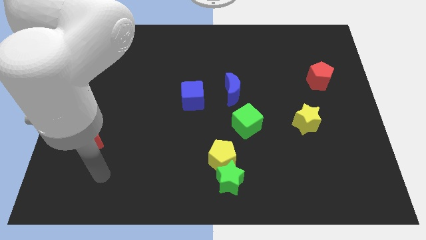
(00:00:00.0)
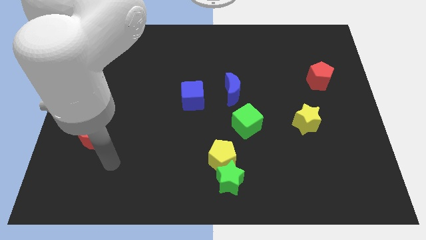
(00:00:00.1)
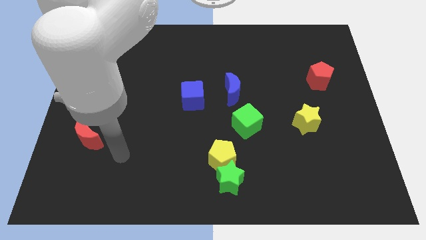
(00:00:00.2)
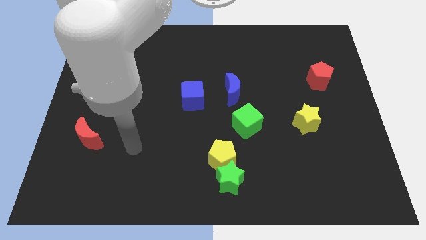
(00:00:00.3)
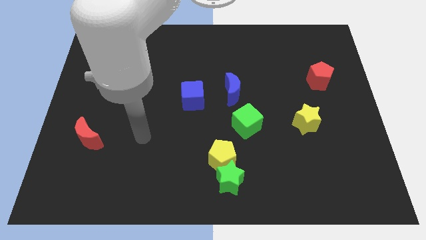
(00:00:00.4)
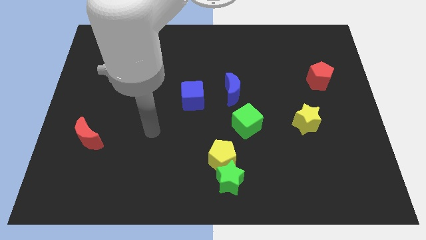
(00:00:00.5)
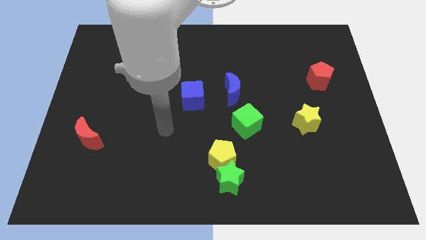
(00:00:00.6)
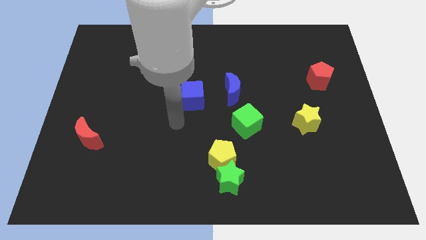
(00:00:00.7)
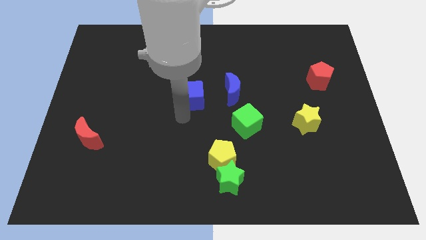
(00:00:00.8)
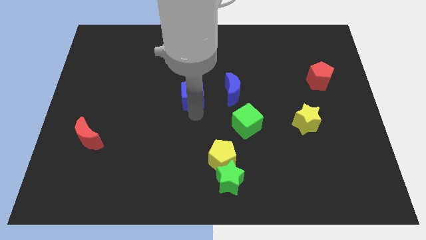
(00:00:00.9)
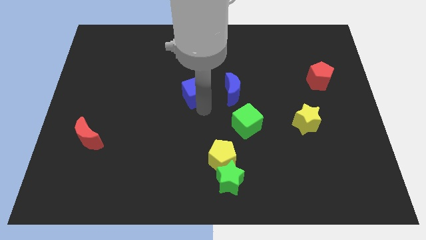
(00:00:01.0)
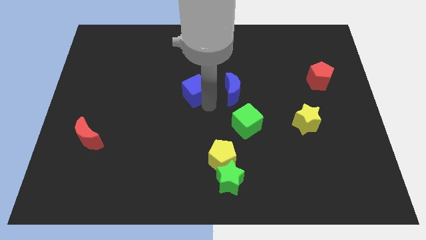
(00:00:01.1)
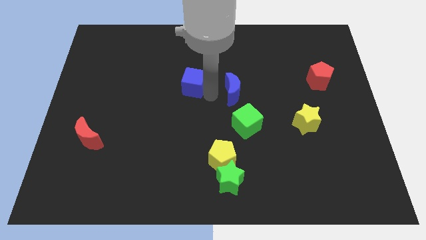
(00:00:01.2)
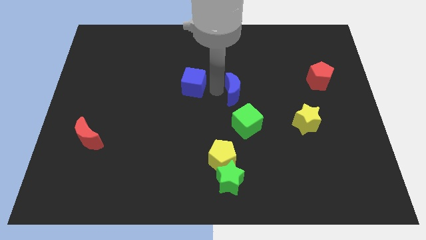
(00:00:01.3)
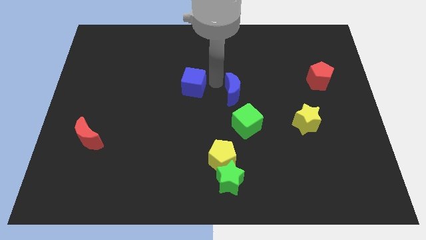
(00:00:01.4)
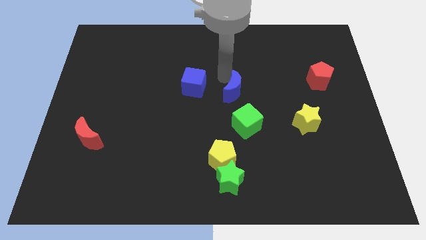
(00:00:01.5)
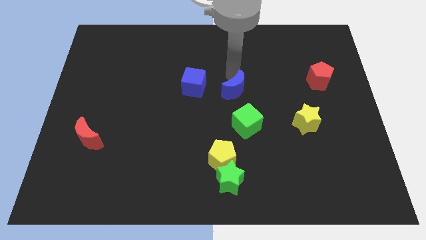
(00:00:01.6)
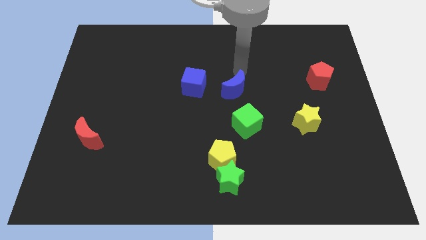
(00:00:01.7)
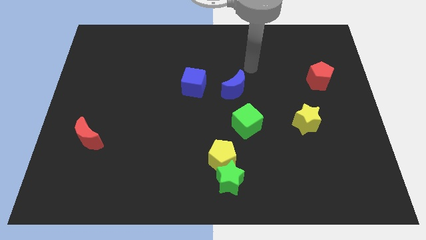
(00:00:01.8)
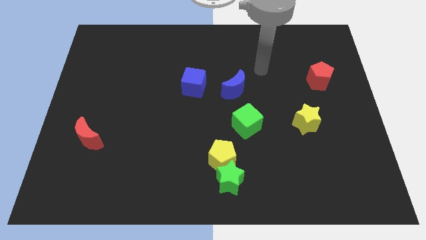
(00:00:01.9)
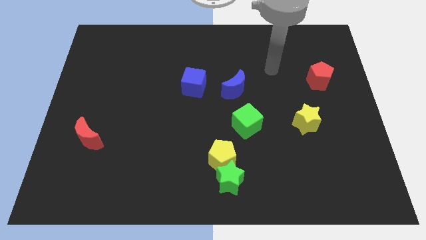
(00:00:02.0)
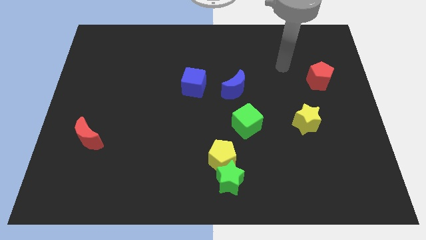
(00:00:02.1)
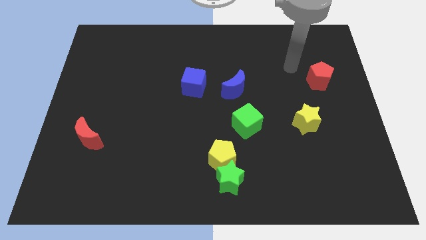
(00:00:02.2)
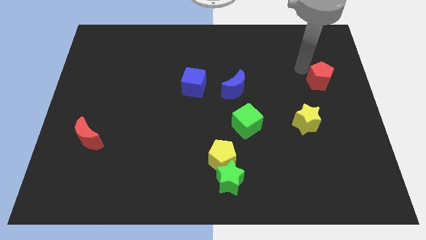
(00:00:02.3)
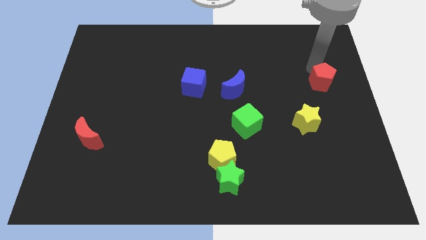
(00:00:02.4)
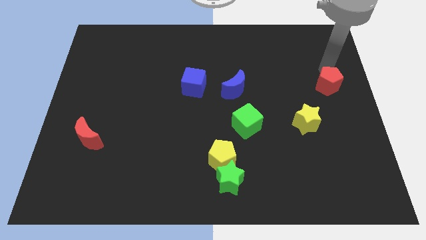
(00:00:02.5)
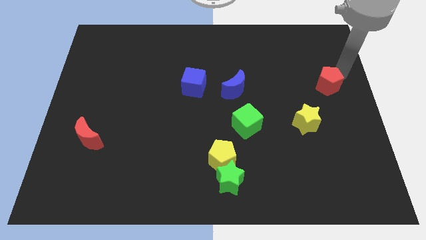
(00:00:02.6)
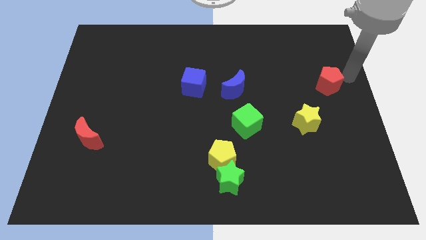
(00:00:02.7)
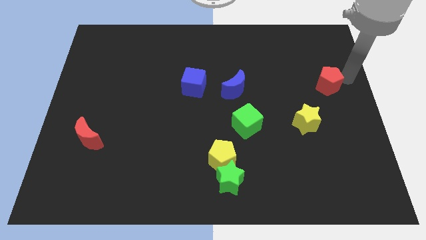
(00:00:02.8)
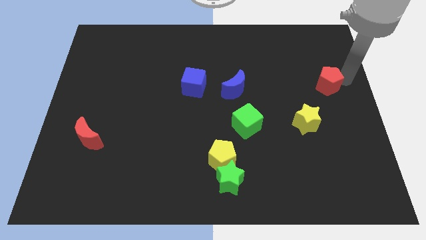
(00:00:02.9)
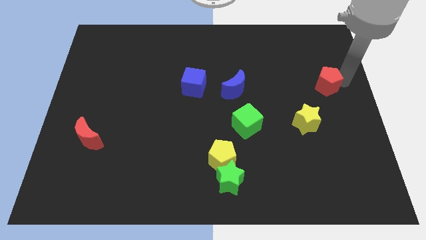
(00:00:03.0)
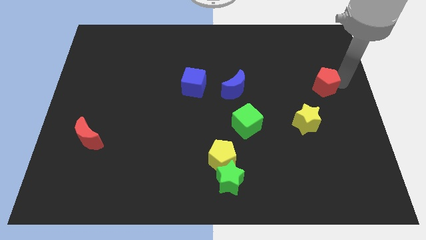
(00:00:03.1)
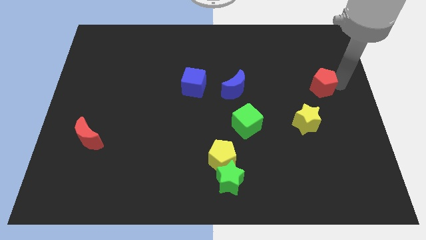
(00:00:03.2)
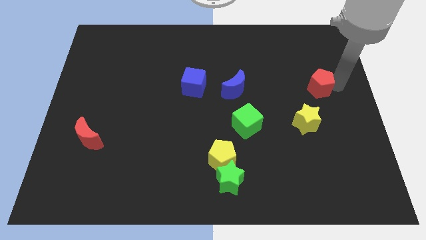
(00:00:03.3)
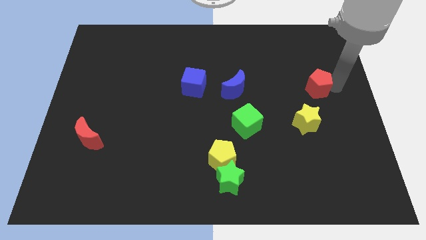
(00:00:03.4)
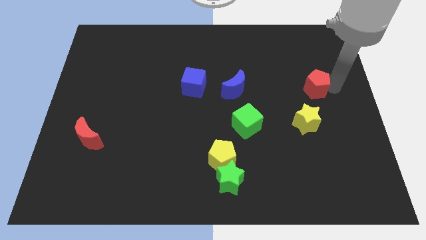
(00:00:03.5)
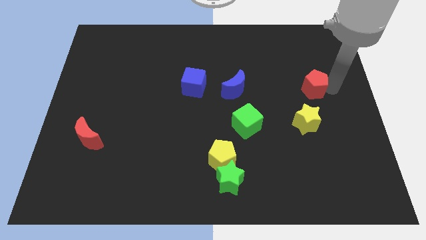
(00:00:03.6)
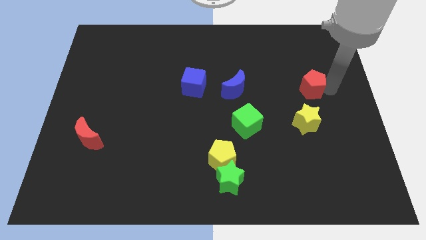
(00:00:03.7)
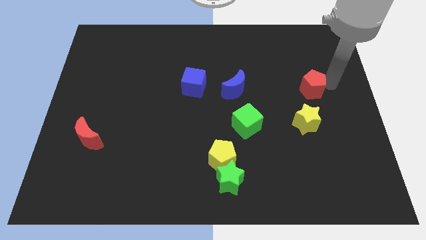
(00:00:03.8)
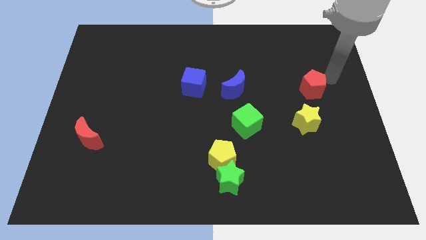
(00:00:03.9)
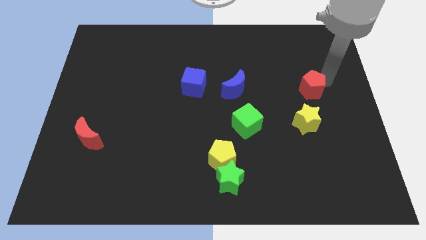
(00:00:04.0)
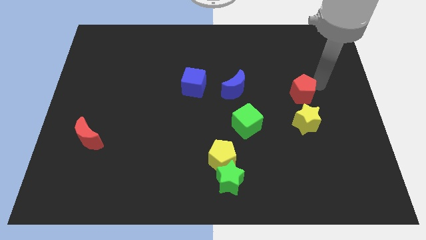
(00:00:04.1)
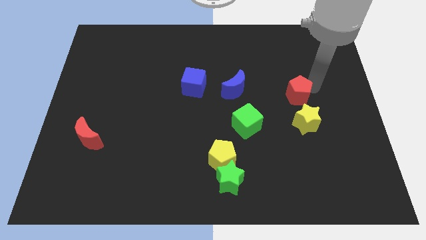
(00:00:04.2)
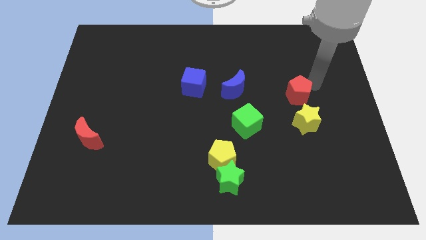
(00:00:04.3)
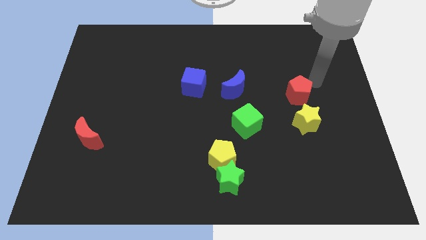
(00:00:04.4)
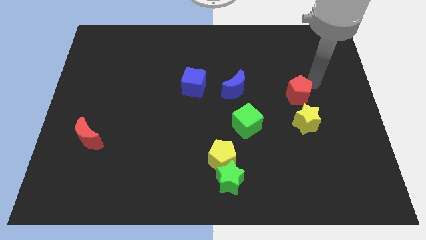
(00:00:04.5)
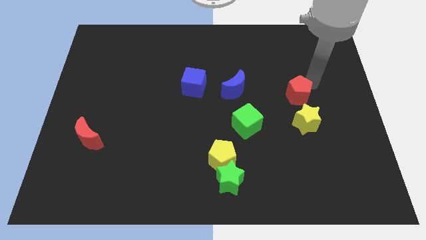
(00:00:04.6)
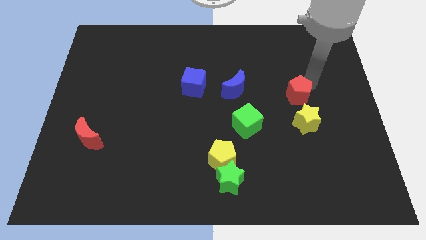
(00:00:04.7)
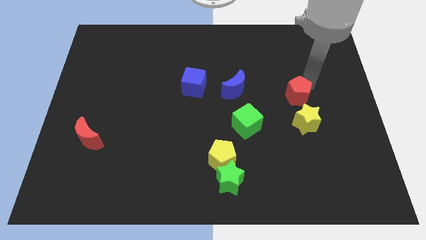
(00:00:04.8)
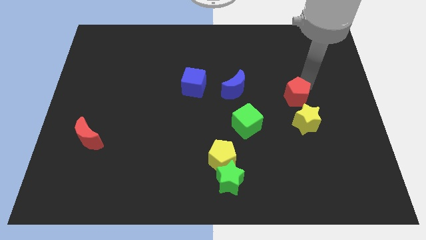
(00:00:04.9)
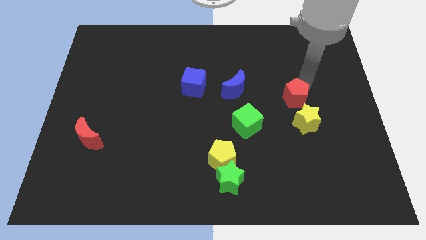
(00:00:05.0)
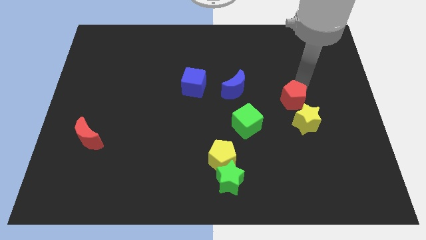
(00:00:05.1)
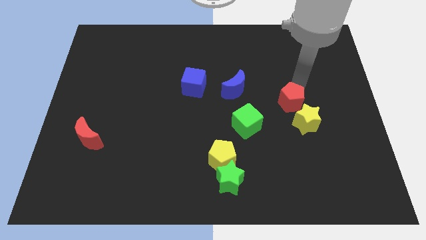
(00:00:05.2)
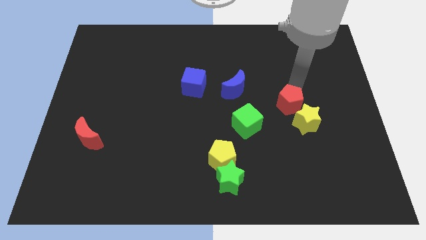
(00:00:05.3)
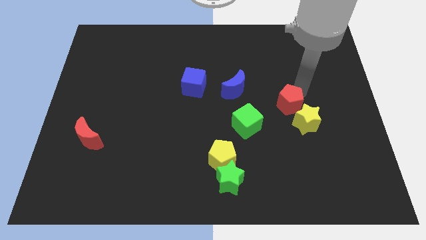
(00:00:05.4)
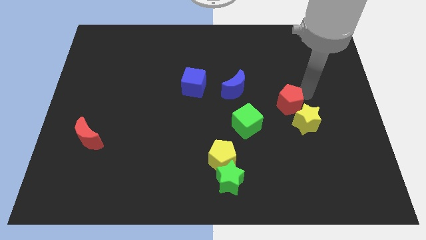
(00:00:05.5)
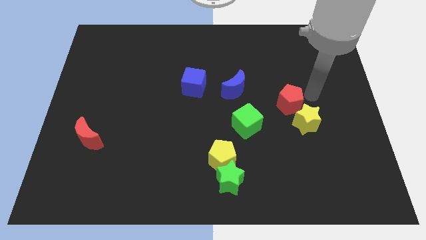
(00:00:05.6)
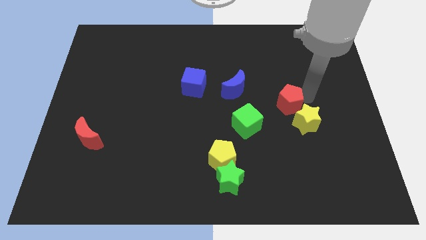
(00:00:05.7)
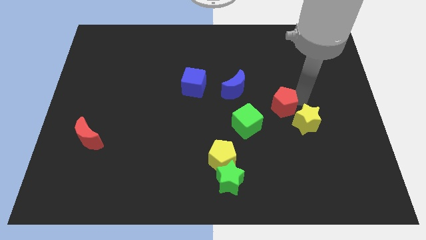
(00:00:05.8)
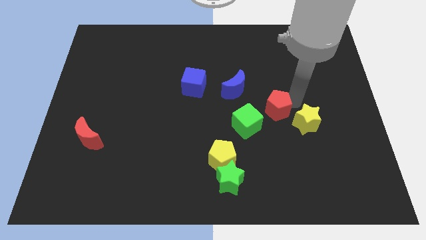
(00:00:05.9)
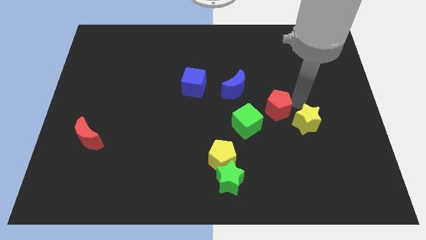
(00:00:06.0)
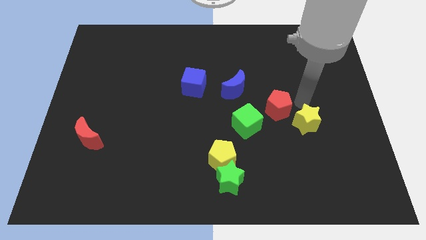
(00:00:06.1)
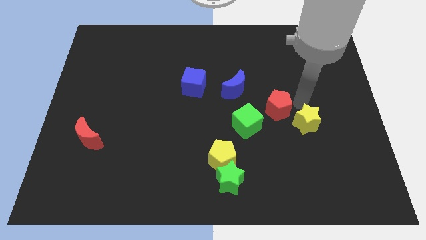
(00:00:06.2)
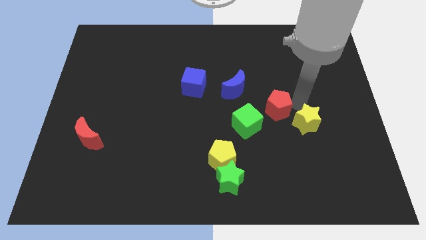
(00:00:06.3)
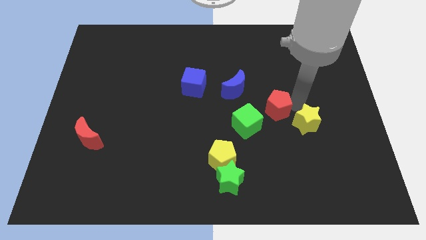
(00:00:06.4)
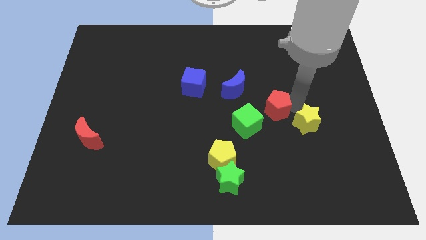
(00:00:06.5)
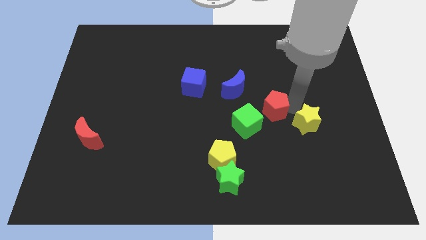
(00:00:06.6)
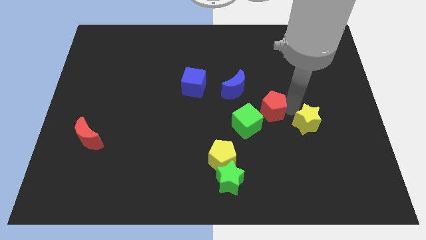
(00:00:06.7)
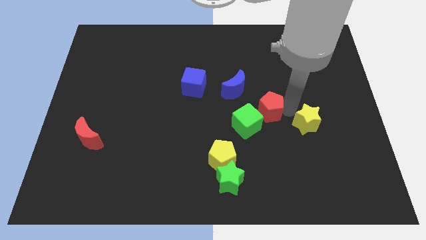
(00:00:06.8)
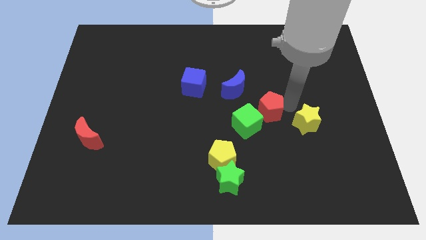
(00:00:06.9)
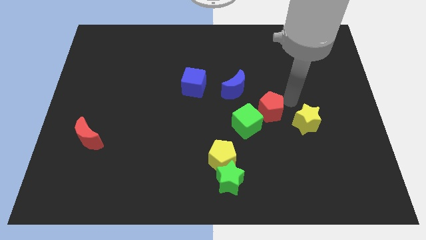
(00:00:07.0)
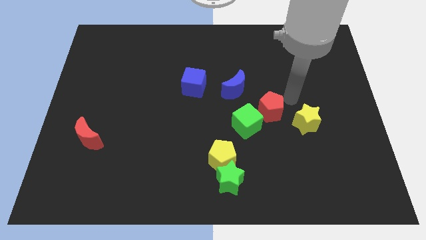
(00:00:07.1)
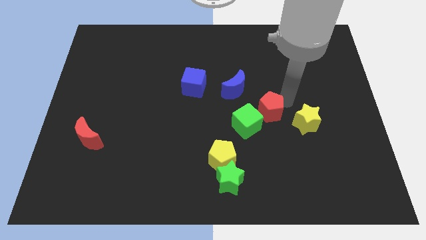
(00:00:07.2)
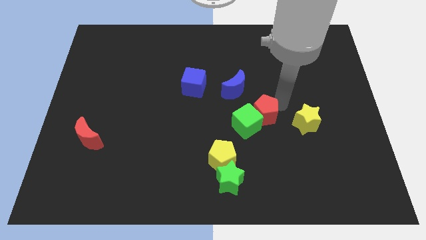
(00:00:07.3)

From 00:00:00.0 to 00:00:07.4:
slide the red pentagon close to the green cube
